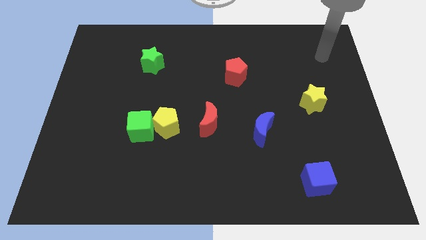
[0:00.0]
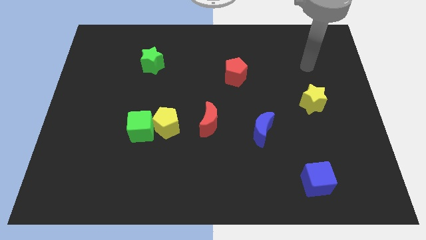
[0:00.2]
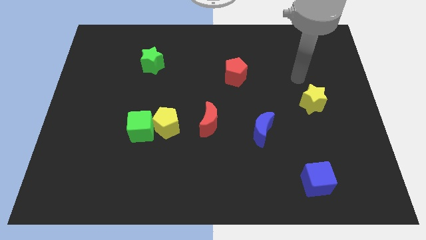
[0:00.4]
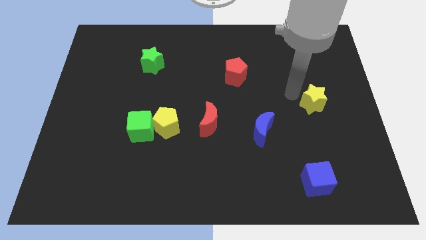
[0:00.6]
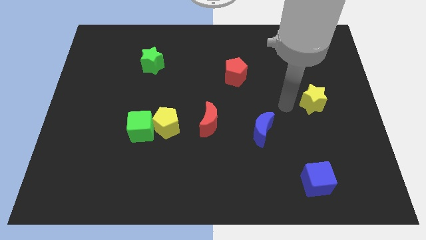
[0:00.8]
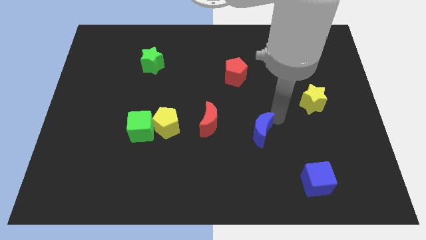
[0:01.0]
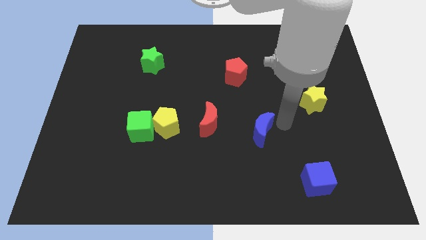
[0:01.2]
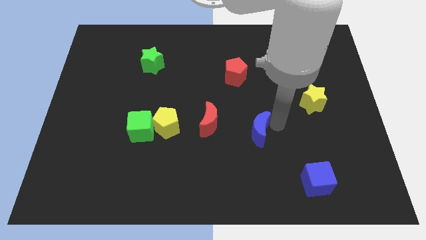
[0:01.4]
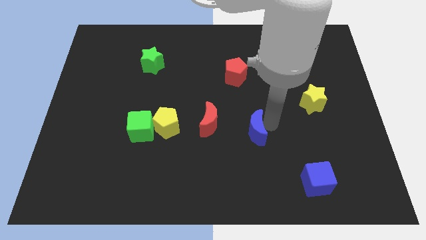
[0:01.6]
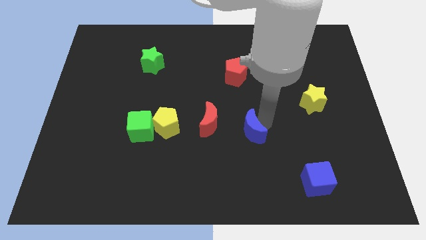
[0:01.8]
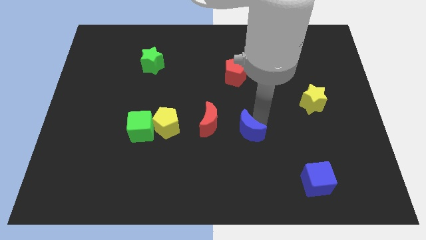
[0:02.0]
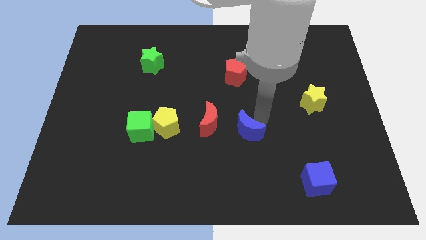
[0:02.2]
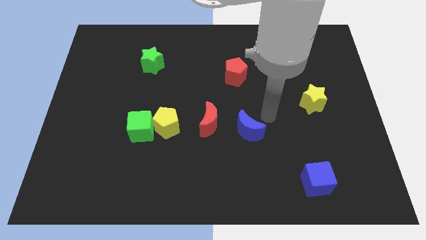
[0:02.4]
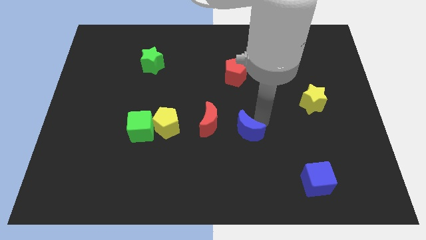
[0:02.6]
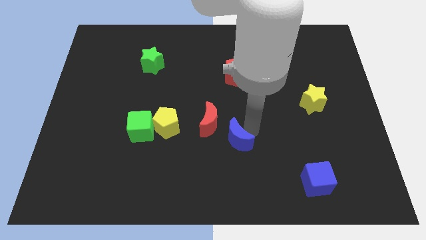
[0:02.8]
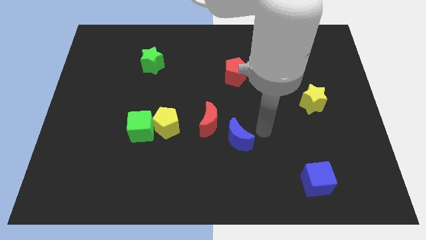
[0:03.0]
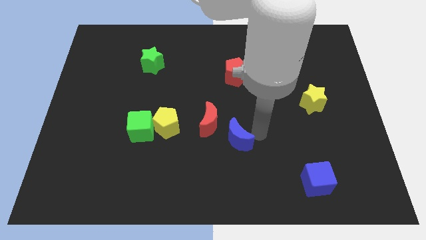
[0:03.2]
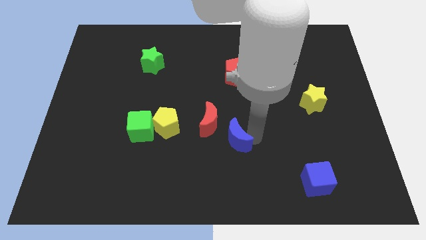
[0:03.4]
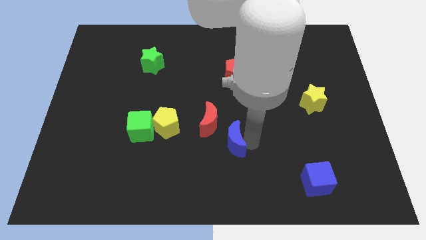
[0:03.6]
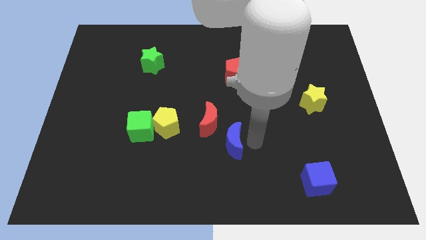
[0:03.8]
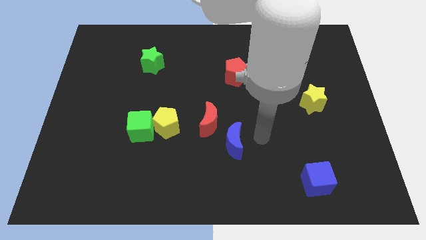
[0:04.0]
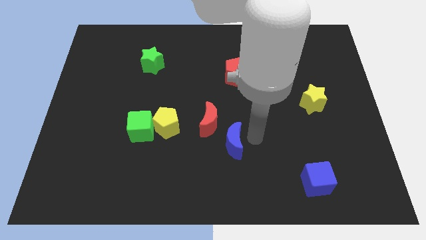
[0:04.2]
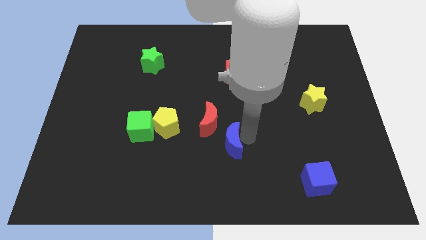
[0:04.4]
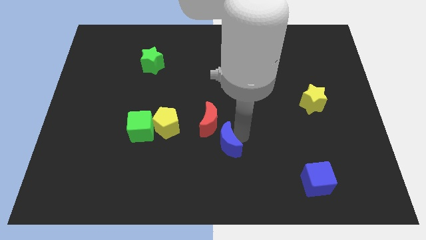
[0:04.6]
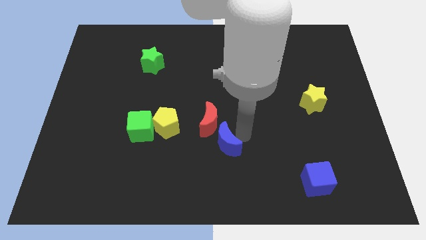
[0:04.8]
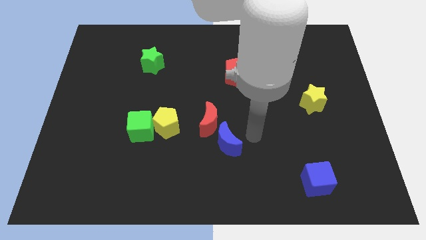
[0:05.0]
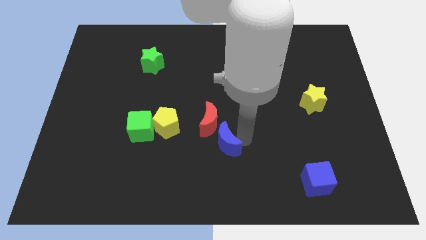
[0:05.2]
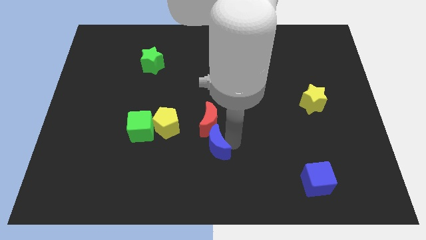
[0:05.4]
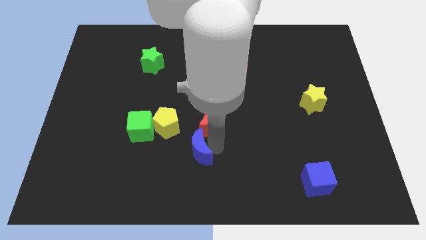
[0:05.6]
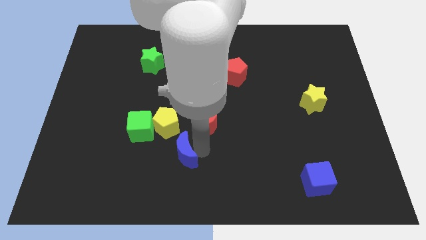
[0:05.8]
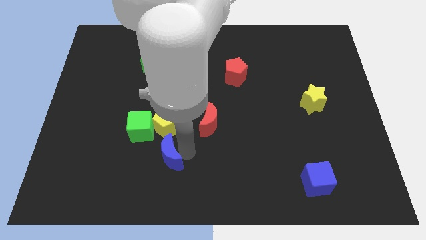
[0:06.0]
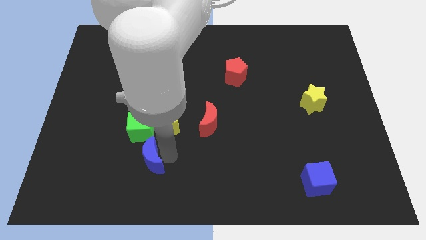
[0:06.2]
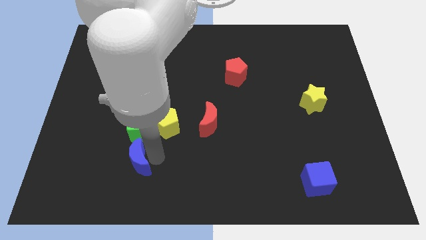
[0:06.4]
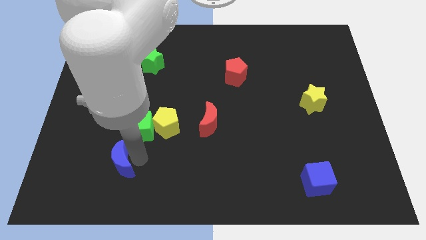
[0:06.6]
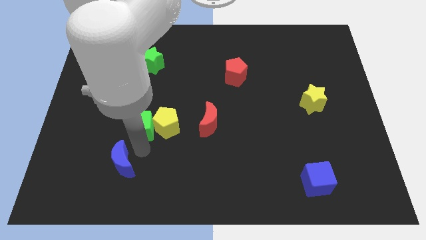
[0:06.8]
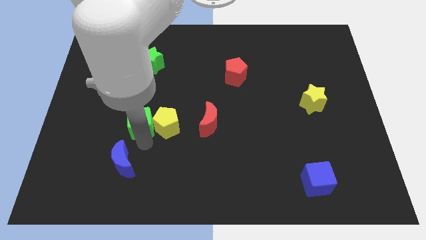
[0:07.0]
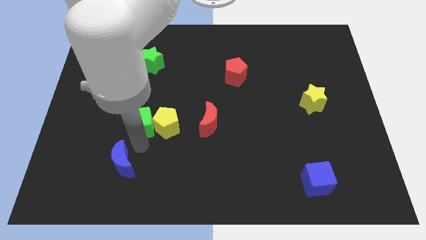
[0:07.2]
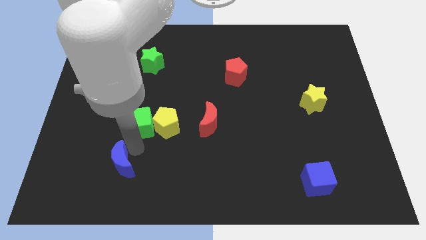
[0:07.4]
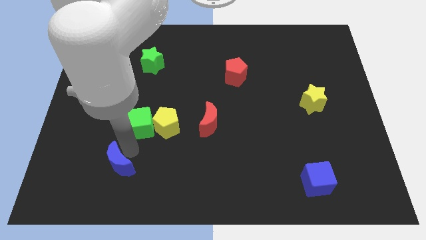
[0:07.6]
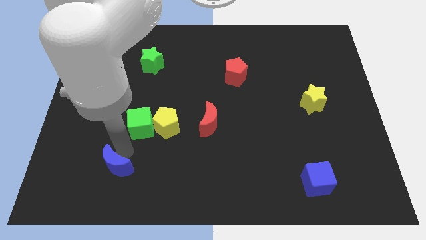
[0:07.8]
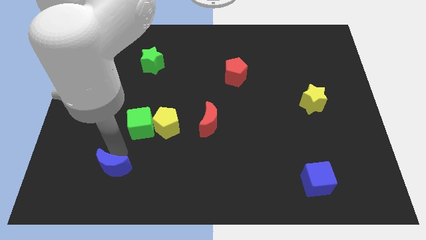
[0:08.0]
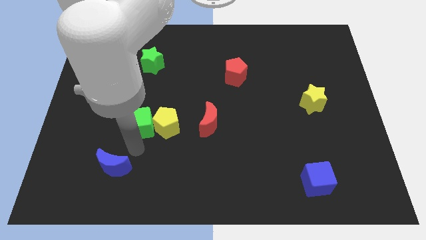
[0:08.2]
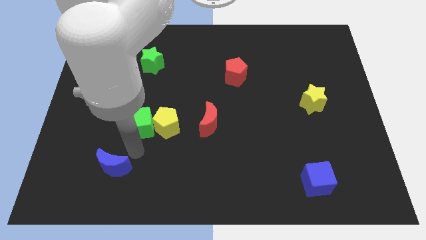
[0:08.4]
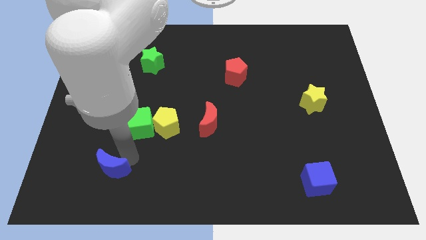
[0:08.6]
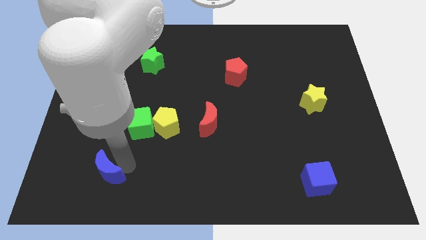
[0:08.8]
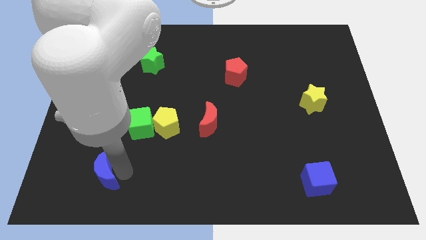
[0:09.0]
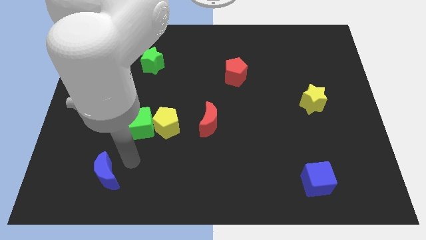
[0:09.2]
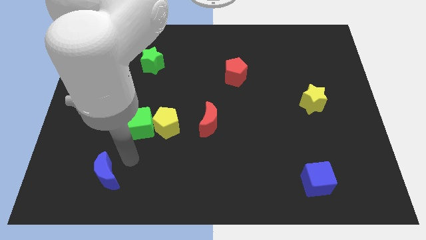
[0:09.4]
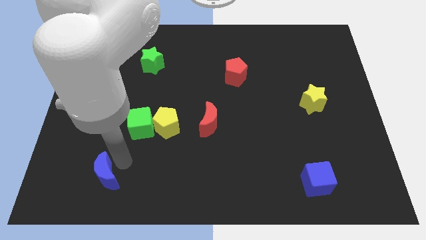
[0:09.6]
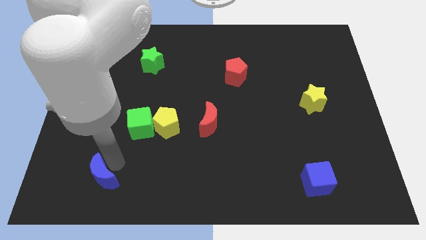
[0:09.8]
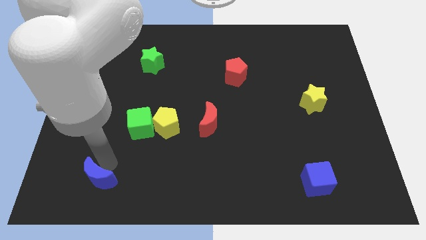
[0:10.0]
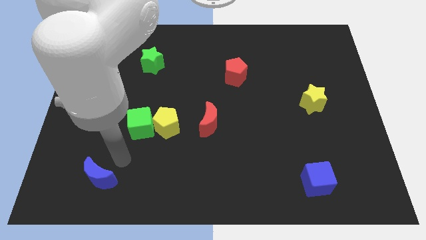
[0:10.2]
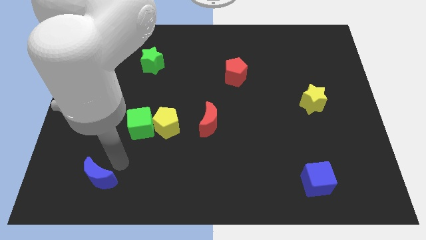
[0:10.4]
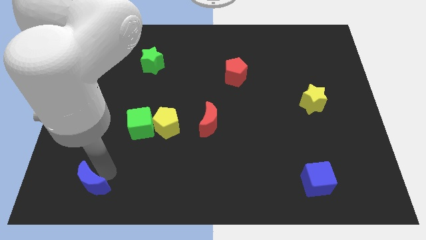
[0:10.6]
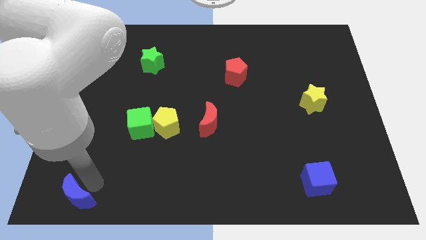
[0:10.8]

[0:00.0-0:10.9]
push the blue moon to the lower left corner

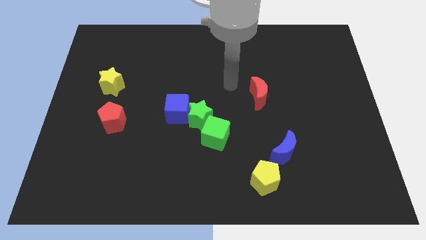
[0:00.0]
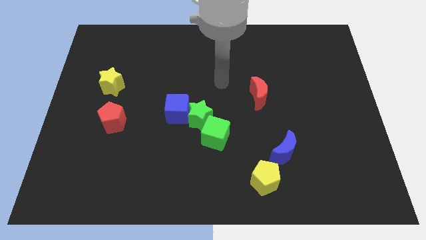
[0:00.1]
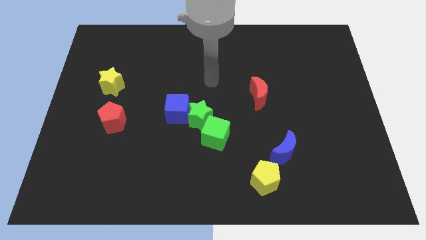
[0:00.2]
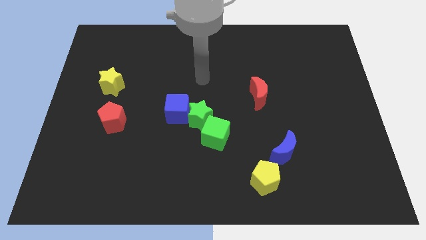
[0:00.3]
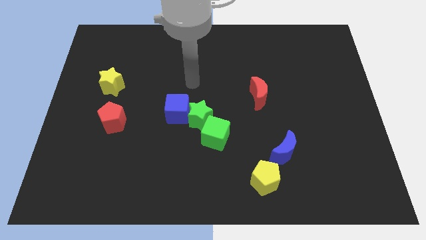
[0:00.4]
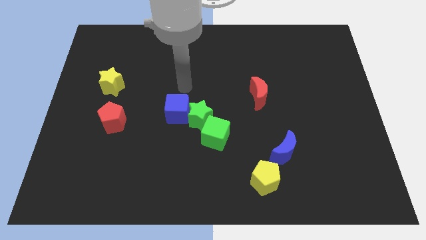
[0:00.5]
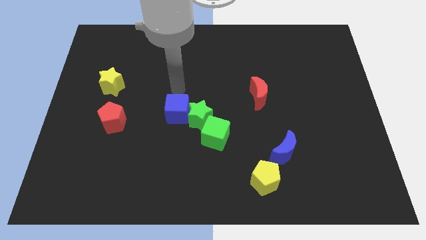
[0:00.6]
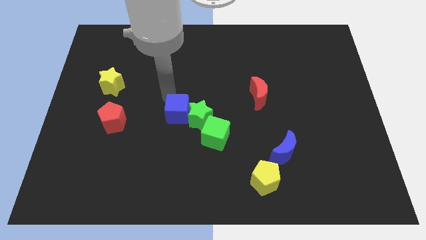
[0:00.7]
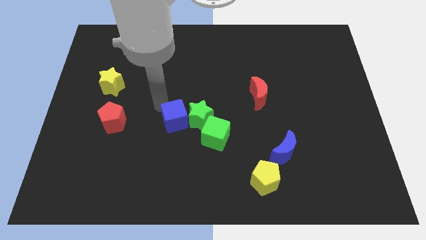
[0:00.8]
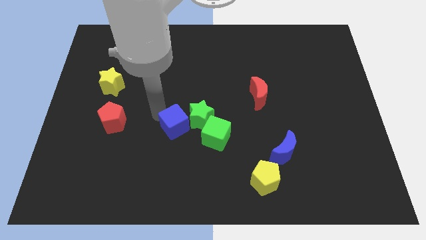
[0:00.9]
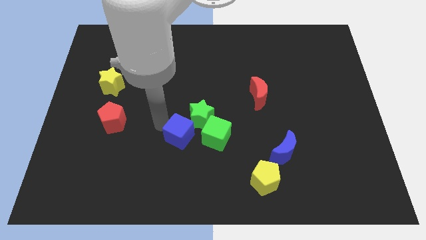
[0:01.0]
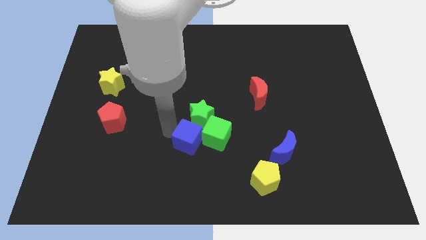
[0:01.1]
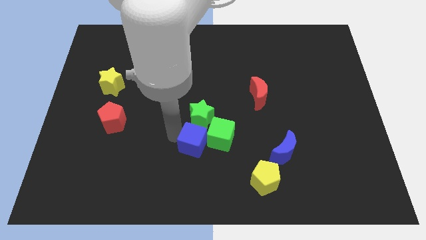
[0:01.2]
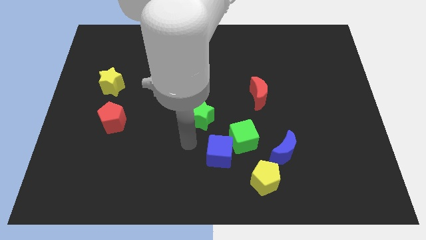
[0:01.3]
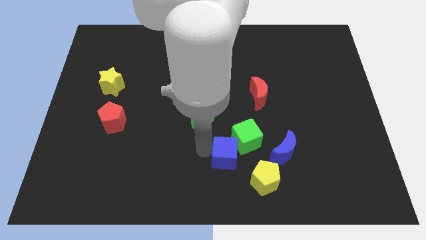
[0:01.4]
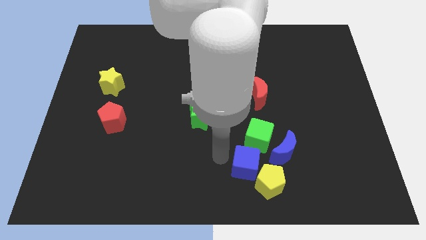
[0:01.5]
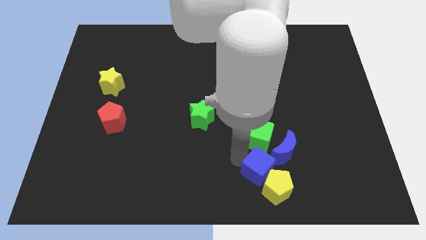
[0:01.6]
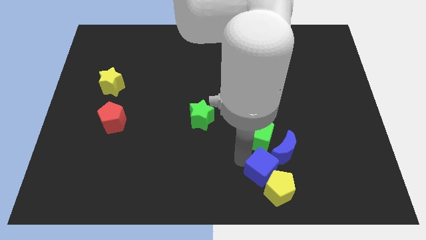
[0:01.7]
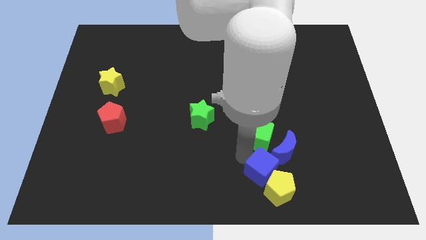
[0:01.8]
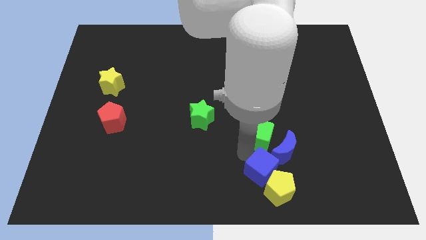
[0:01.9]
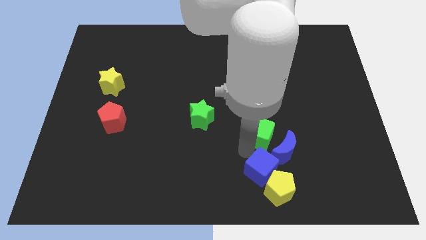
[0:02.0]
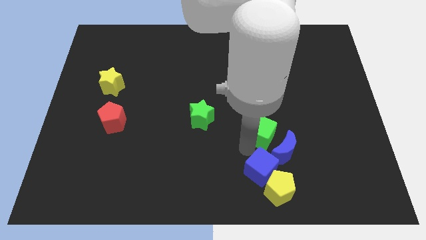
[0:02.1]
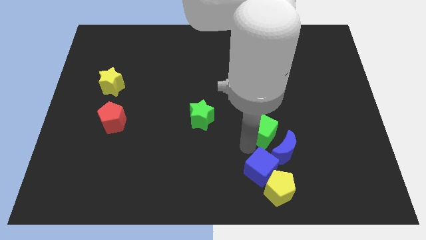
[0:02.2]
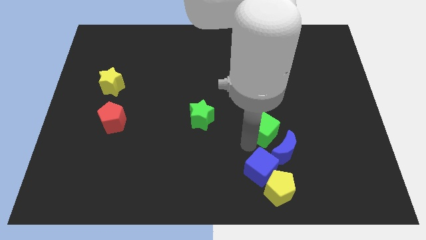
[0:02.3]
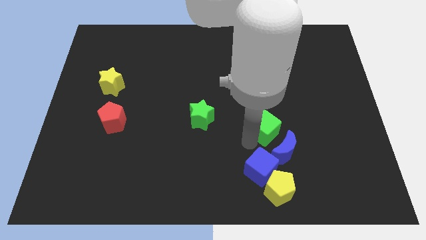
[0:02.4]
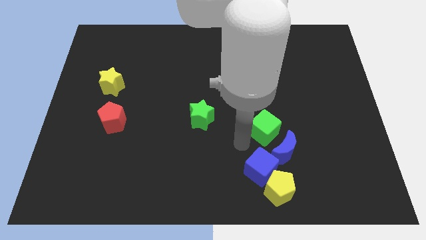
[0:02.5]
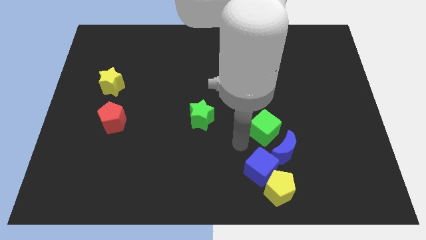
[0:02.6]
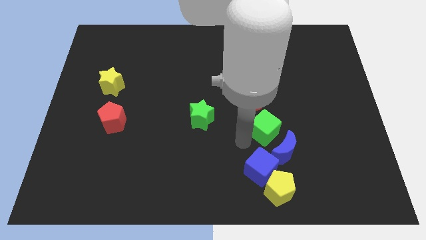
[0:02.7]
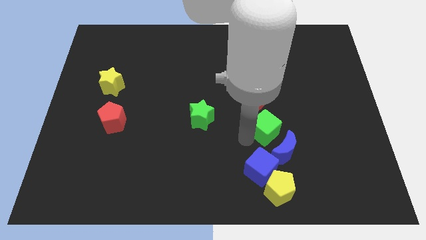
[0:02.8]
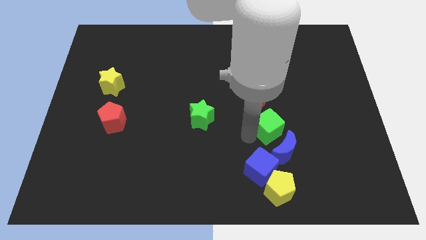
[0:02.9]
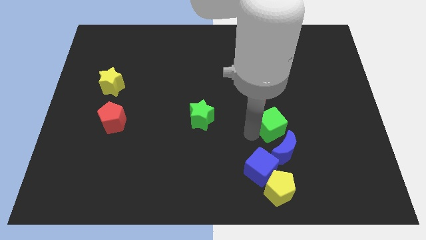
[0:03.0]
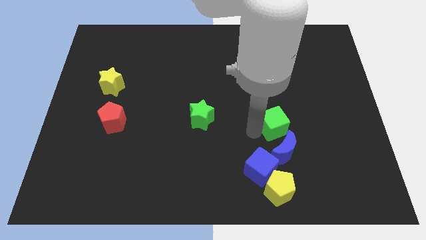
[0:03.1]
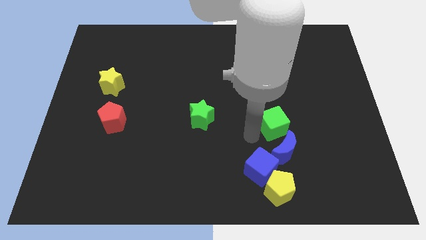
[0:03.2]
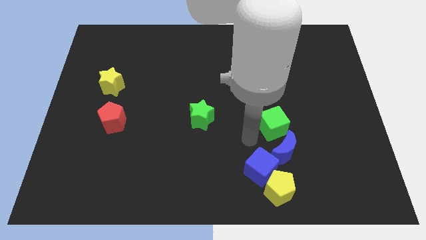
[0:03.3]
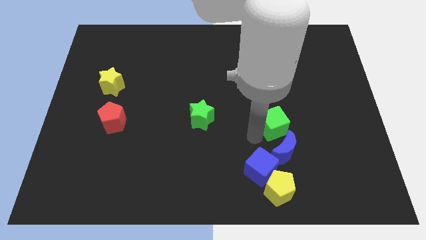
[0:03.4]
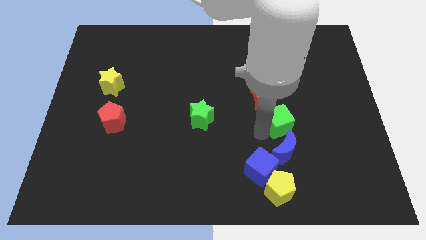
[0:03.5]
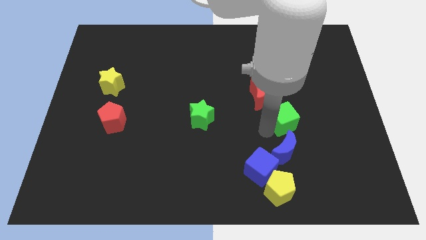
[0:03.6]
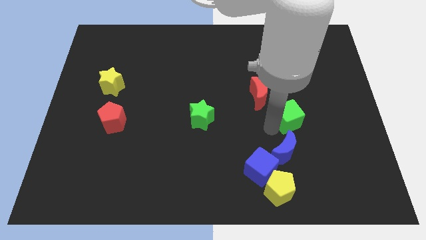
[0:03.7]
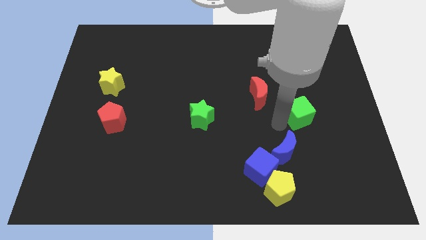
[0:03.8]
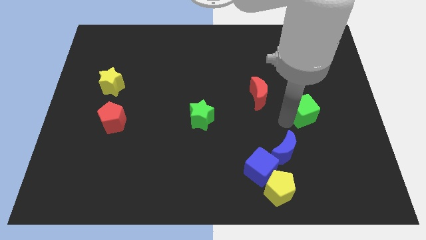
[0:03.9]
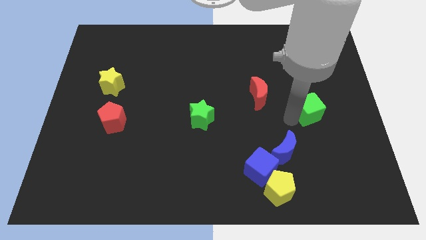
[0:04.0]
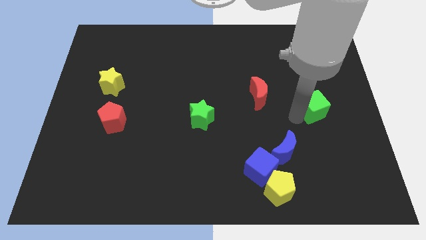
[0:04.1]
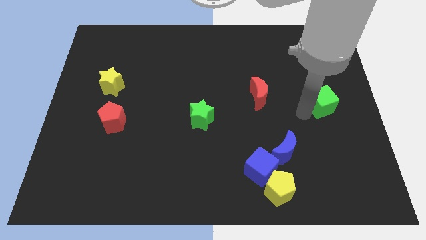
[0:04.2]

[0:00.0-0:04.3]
push the green cube to the right side
